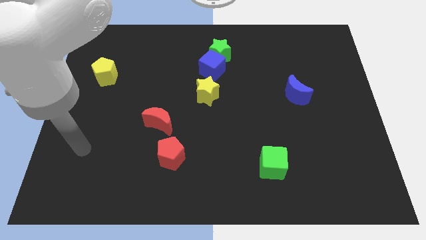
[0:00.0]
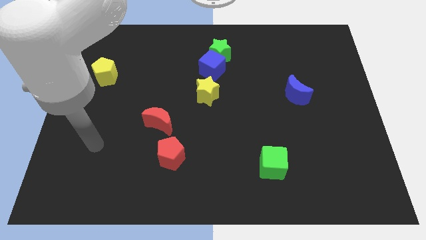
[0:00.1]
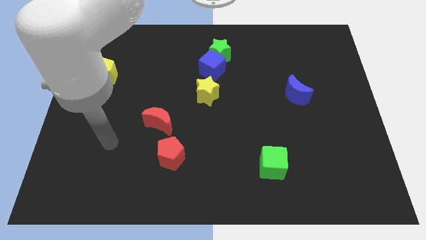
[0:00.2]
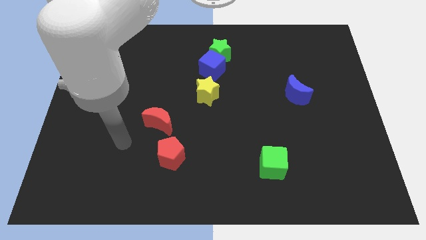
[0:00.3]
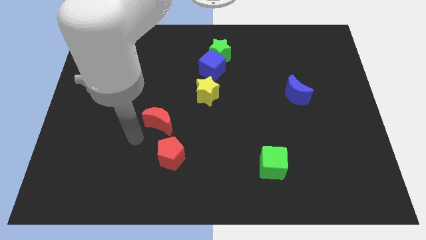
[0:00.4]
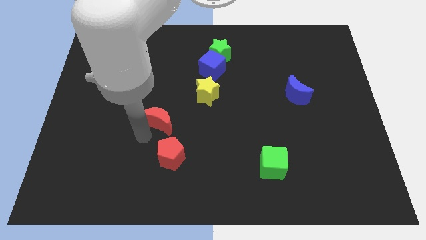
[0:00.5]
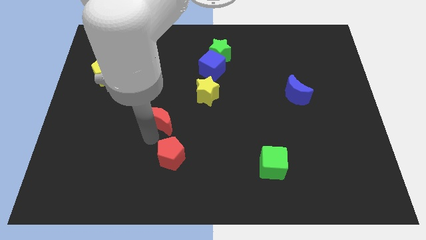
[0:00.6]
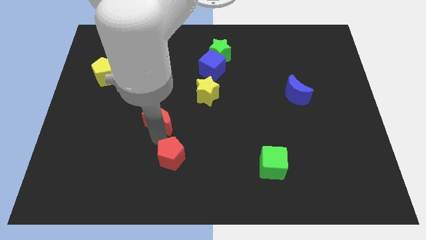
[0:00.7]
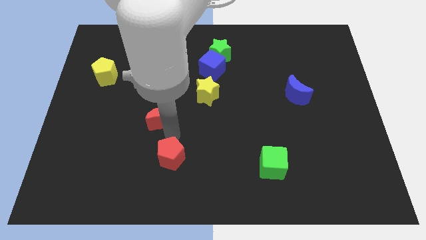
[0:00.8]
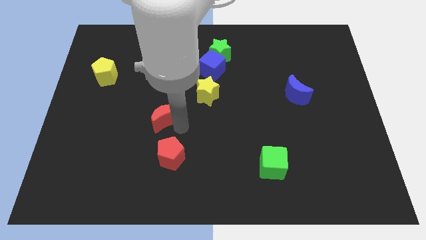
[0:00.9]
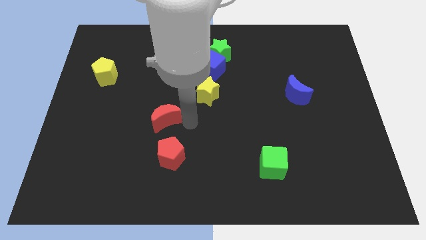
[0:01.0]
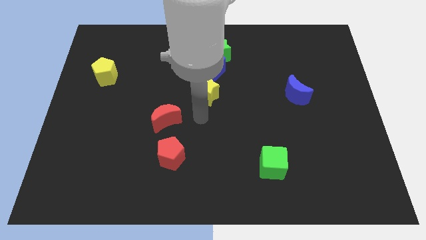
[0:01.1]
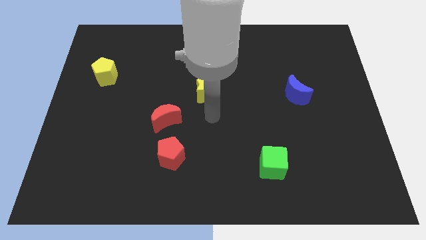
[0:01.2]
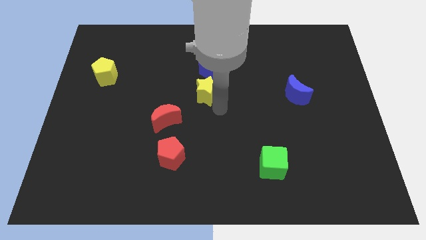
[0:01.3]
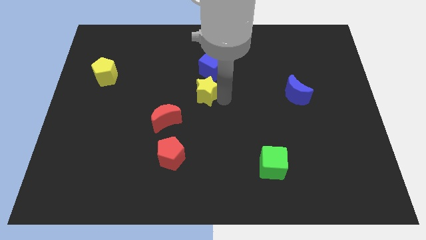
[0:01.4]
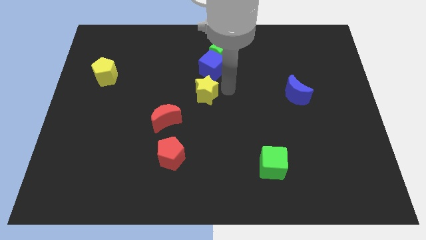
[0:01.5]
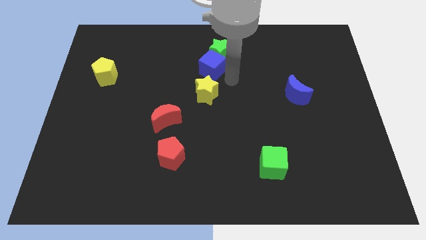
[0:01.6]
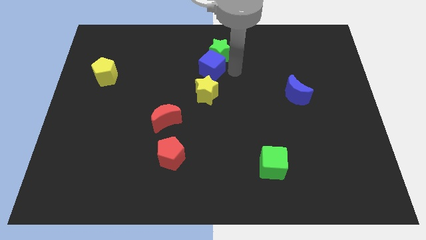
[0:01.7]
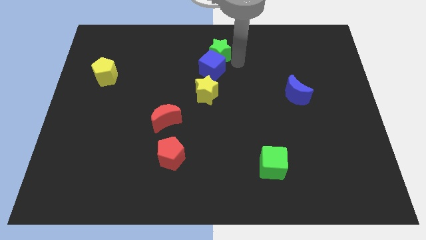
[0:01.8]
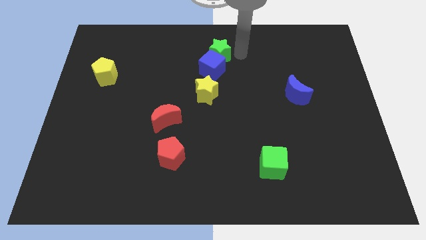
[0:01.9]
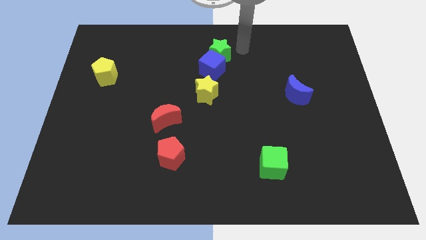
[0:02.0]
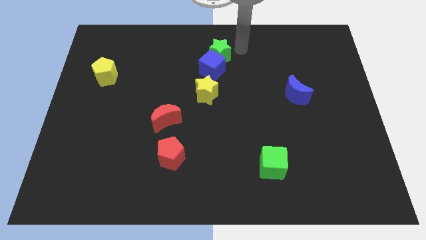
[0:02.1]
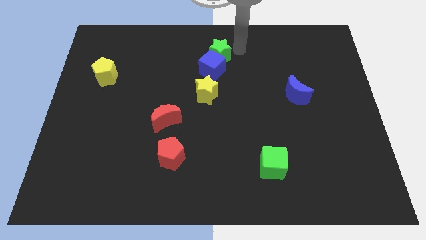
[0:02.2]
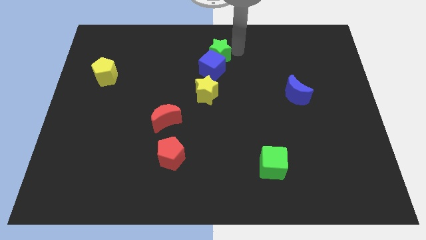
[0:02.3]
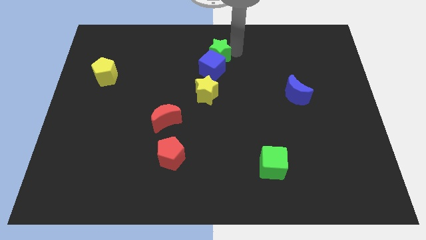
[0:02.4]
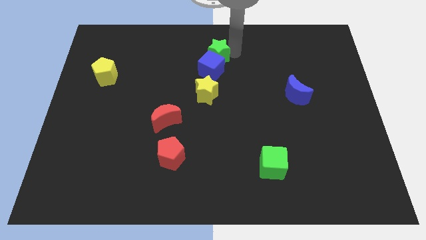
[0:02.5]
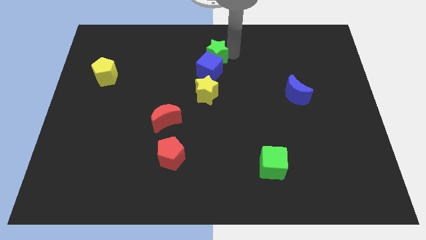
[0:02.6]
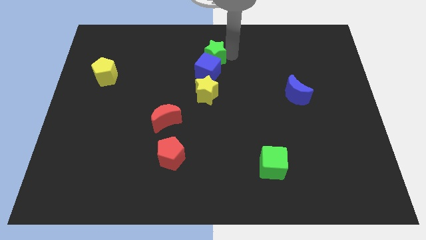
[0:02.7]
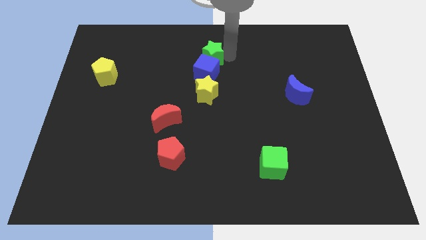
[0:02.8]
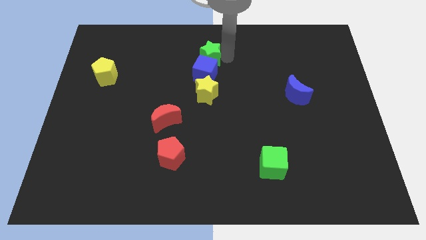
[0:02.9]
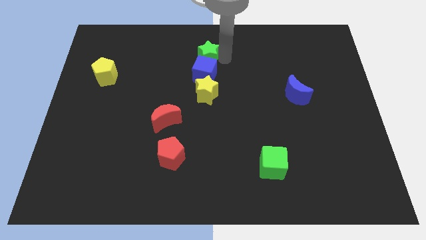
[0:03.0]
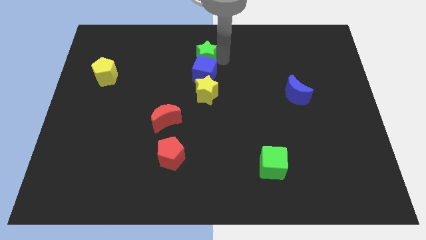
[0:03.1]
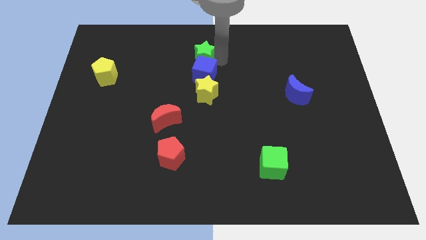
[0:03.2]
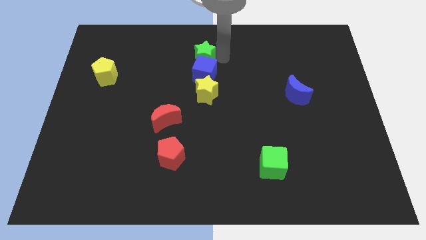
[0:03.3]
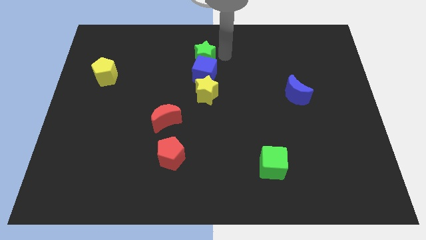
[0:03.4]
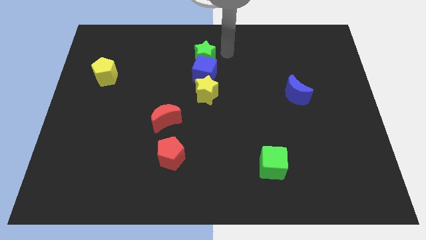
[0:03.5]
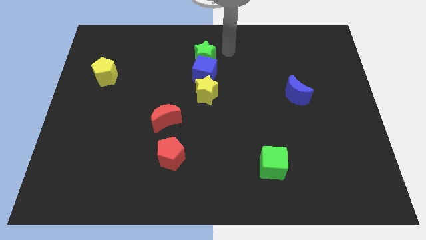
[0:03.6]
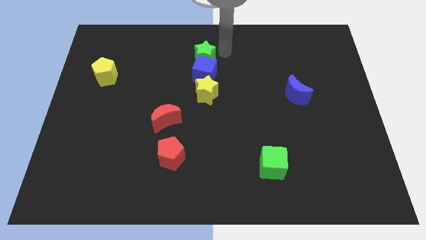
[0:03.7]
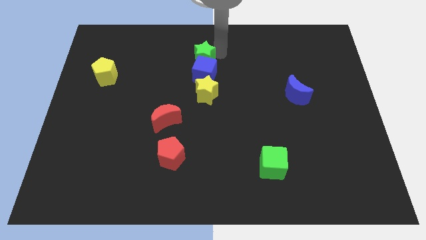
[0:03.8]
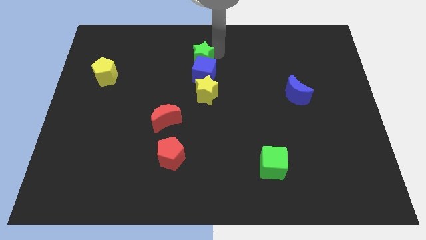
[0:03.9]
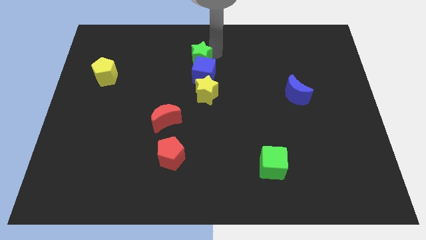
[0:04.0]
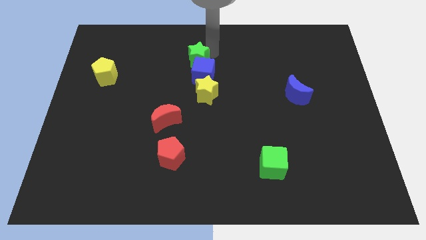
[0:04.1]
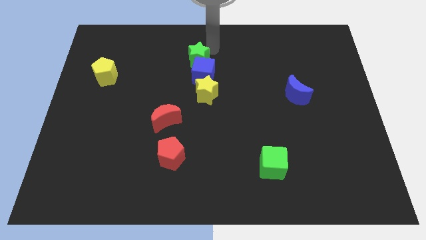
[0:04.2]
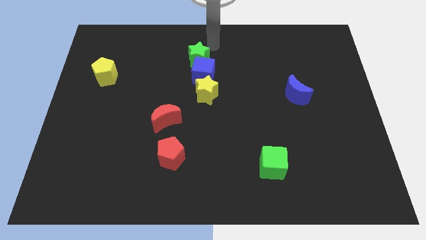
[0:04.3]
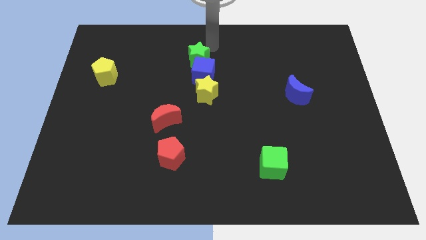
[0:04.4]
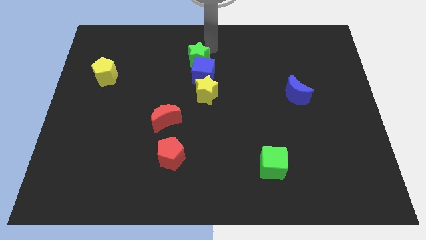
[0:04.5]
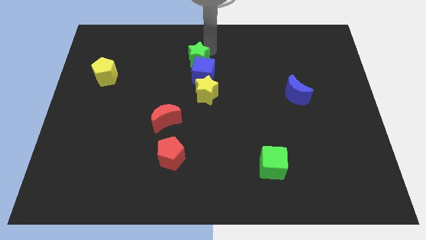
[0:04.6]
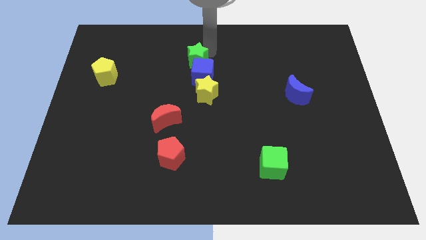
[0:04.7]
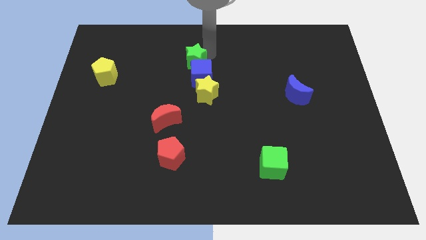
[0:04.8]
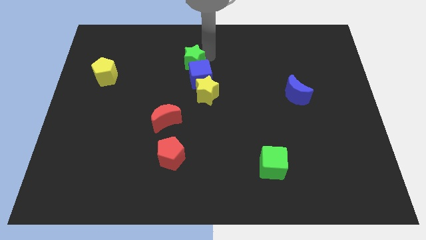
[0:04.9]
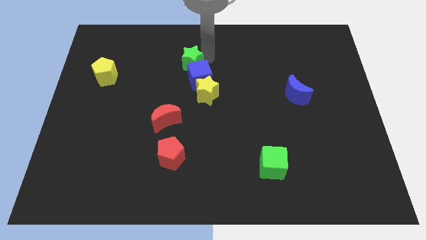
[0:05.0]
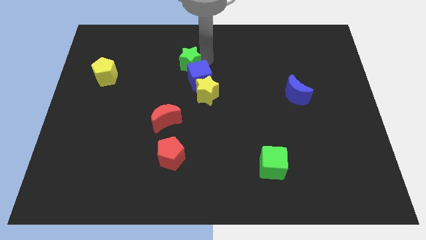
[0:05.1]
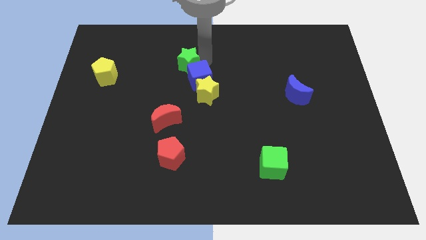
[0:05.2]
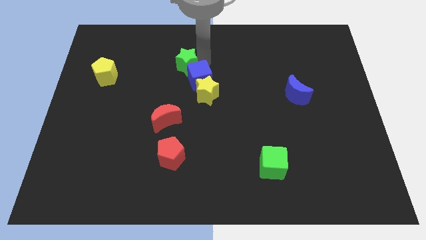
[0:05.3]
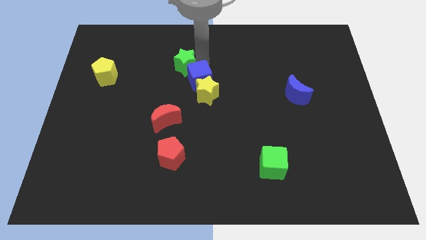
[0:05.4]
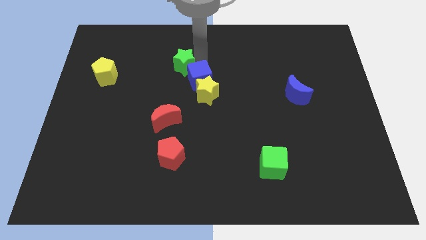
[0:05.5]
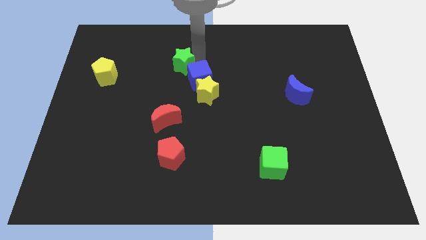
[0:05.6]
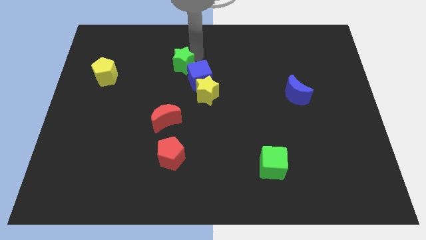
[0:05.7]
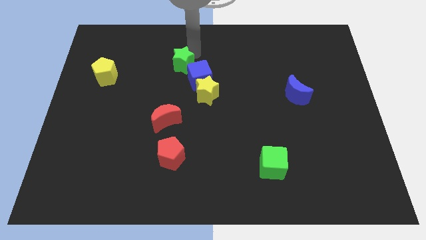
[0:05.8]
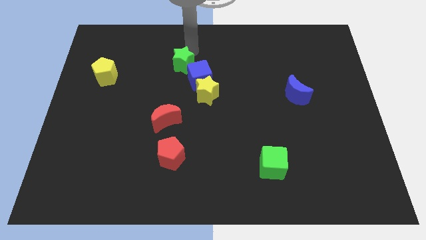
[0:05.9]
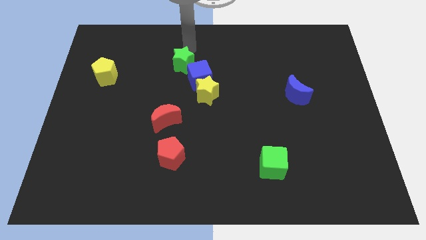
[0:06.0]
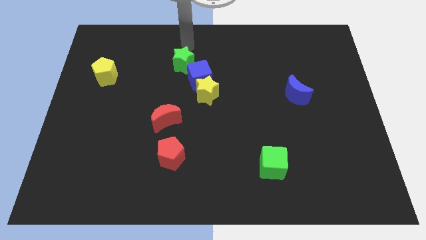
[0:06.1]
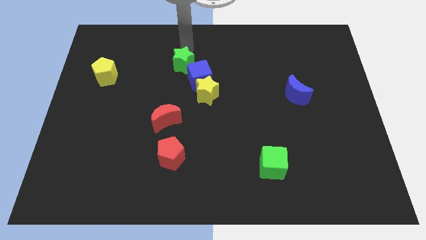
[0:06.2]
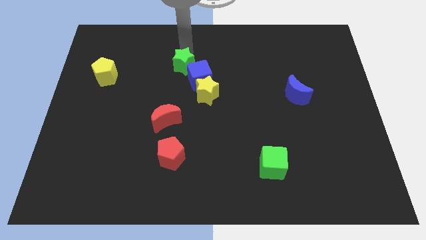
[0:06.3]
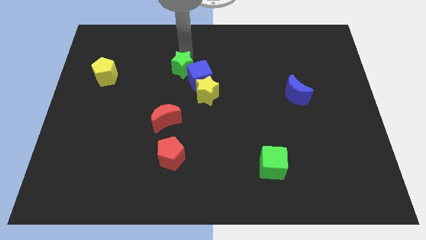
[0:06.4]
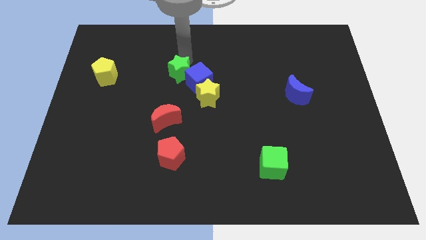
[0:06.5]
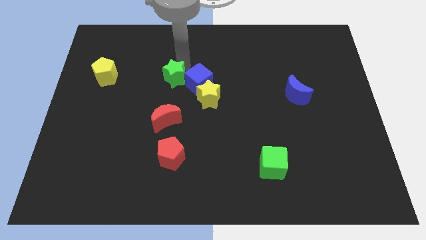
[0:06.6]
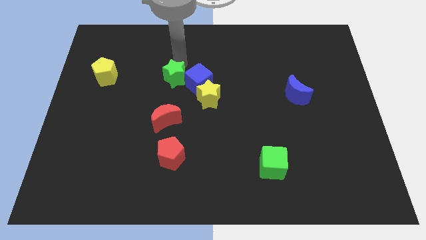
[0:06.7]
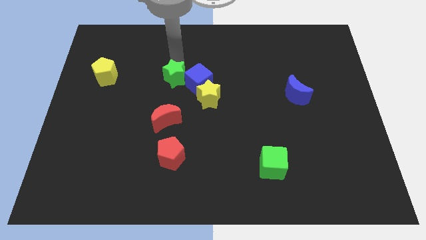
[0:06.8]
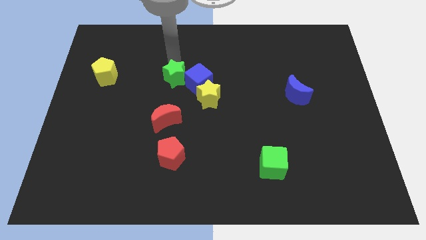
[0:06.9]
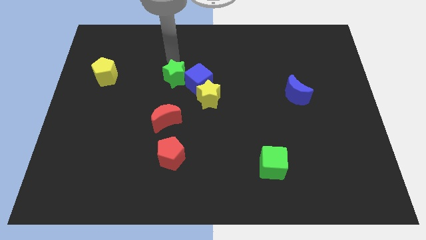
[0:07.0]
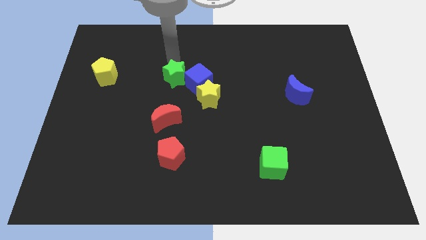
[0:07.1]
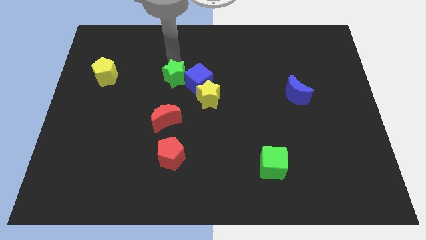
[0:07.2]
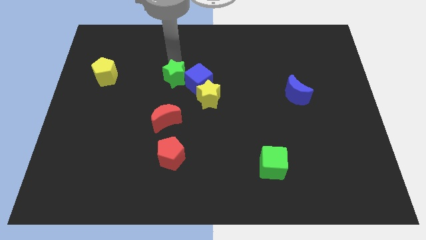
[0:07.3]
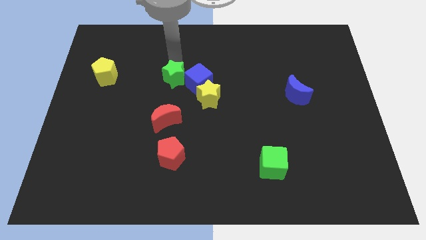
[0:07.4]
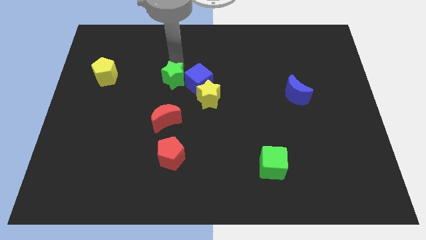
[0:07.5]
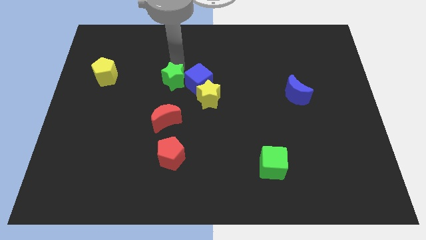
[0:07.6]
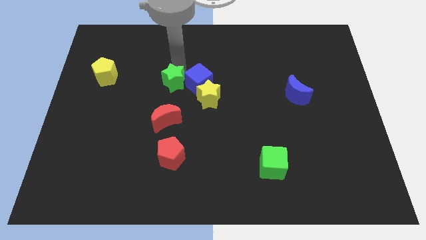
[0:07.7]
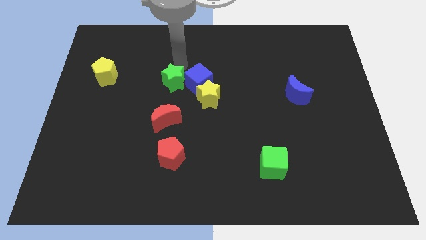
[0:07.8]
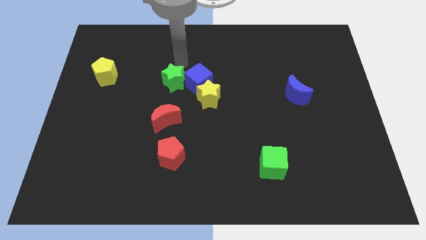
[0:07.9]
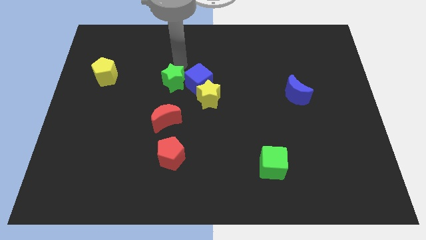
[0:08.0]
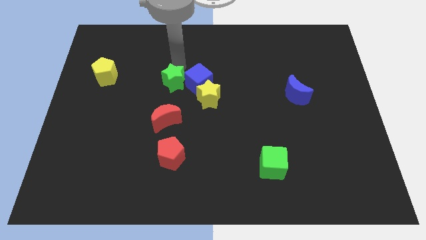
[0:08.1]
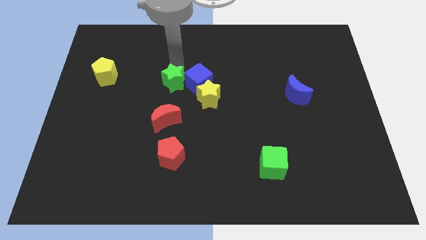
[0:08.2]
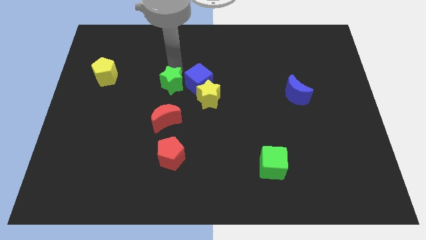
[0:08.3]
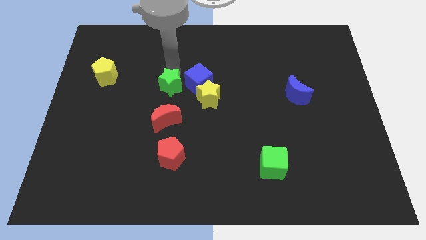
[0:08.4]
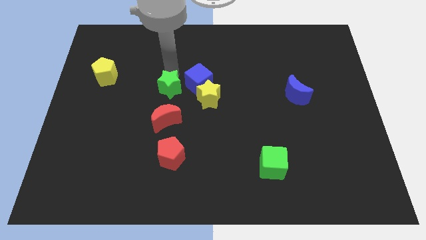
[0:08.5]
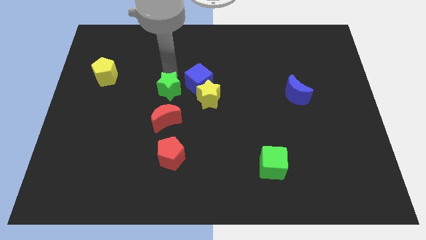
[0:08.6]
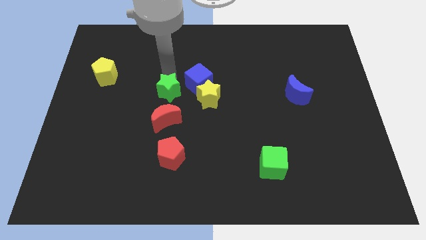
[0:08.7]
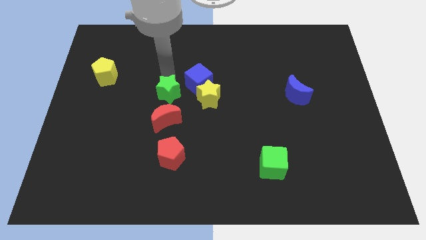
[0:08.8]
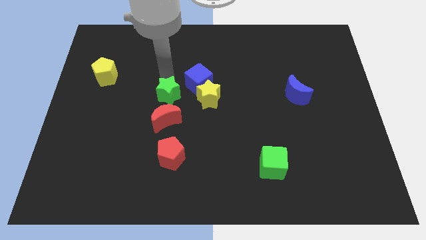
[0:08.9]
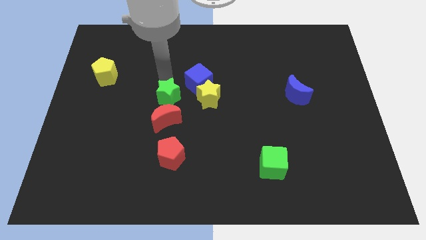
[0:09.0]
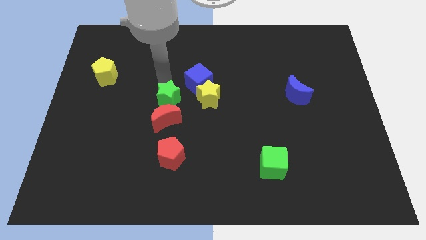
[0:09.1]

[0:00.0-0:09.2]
slide the green star towards the red moon
